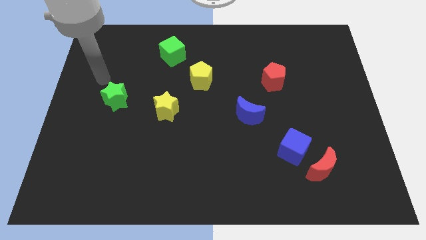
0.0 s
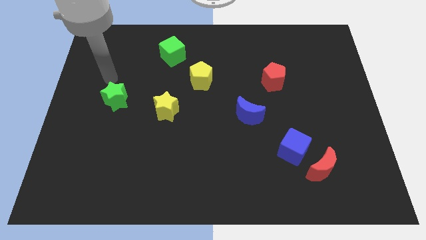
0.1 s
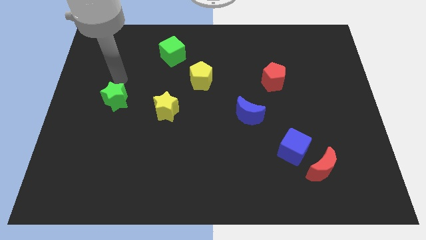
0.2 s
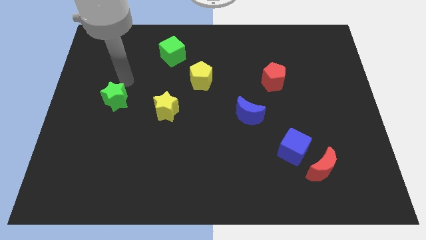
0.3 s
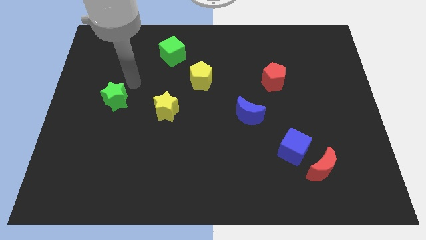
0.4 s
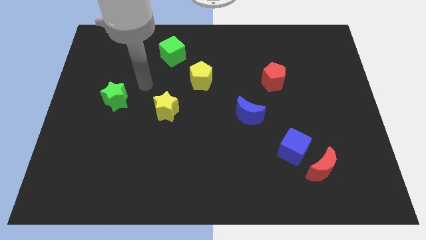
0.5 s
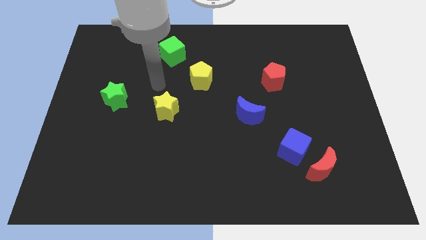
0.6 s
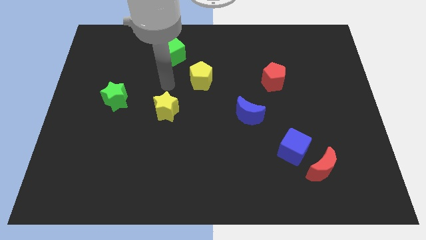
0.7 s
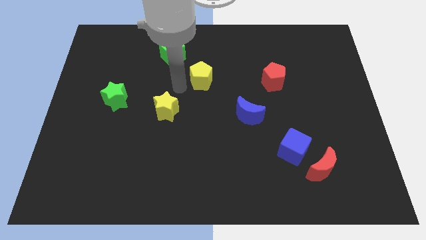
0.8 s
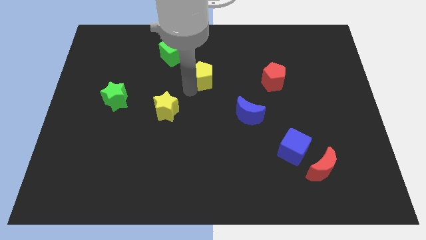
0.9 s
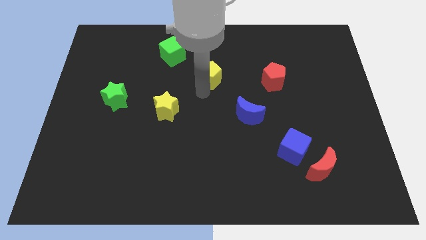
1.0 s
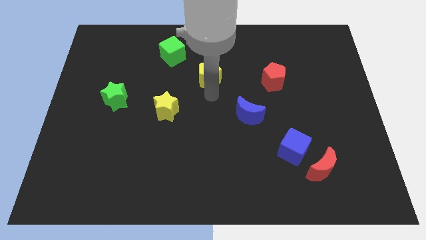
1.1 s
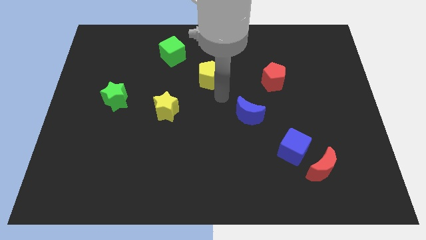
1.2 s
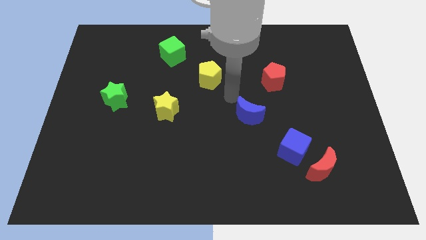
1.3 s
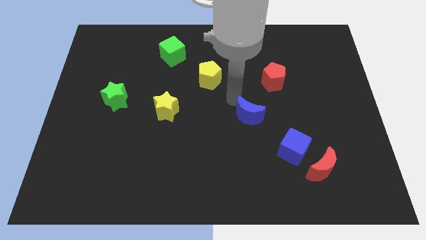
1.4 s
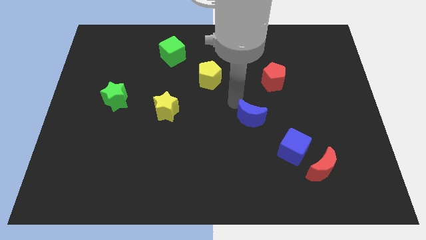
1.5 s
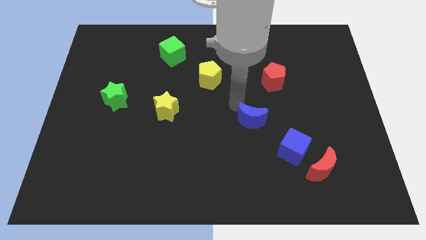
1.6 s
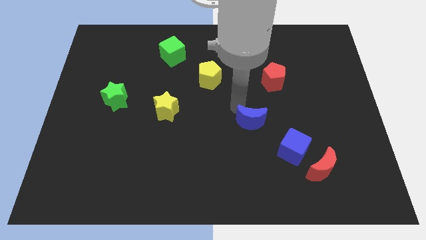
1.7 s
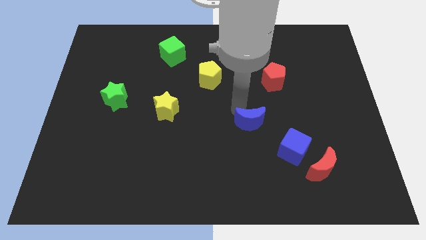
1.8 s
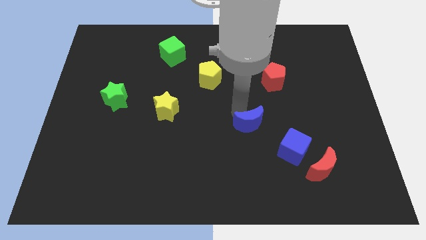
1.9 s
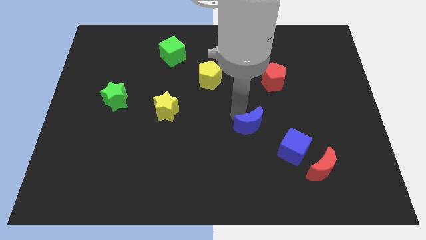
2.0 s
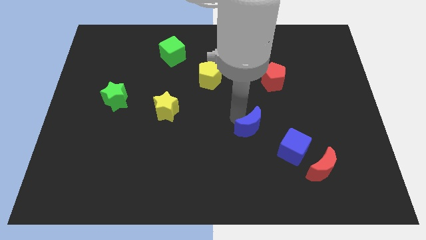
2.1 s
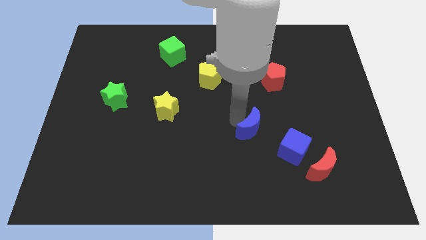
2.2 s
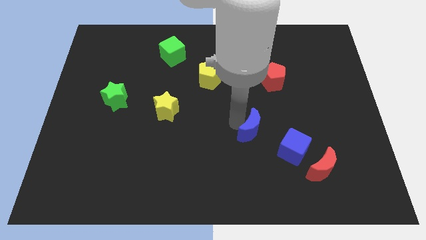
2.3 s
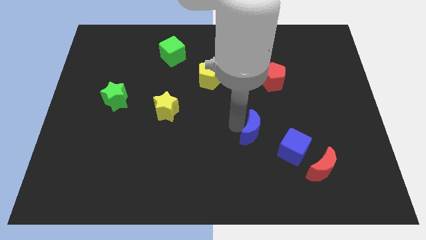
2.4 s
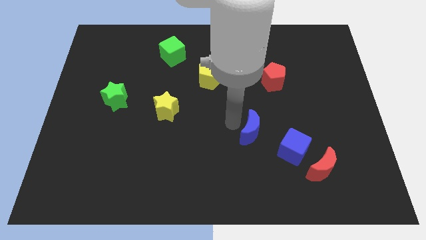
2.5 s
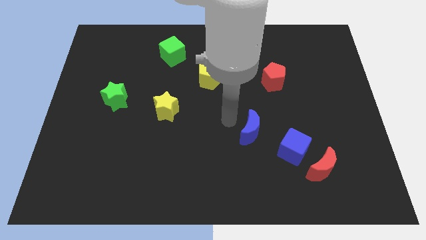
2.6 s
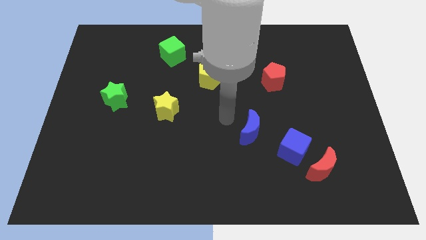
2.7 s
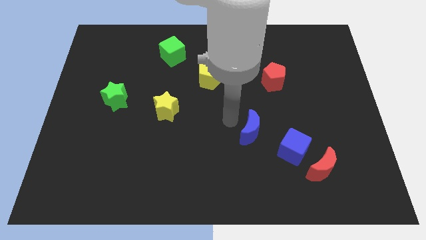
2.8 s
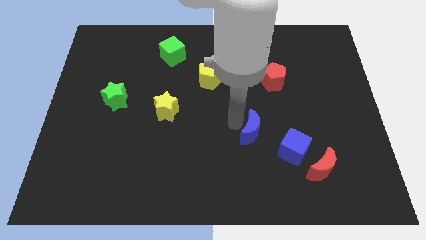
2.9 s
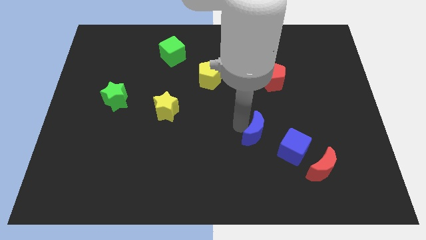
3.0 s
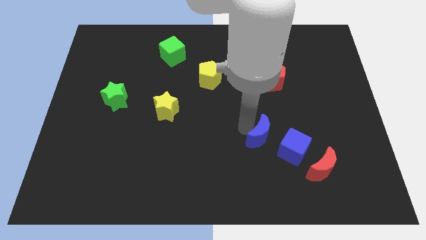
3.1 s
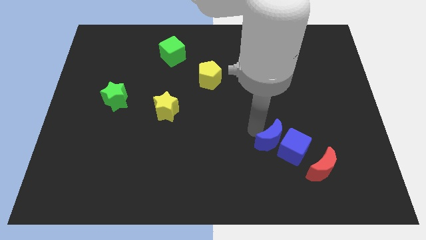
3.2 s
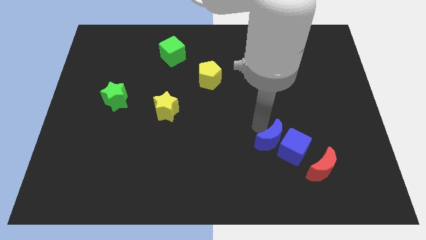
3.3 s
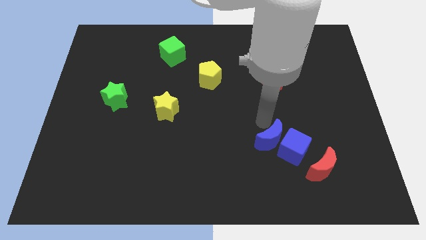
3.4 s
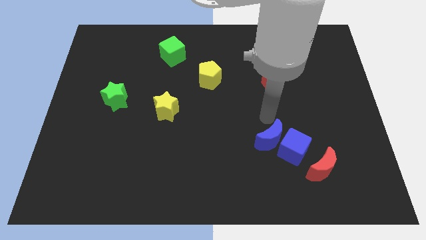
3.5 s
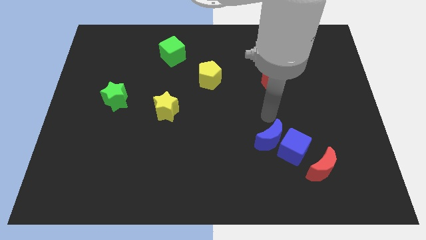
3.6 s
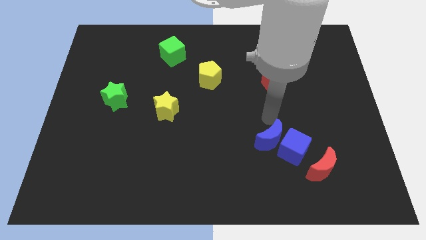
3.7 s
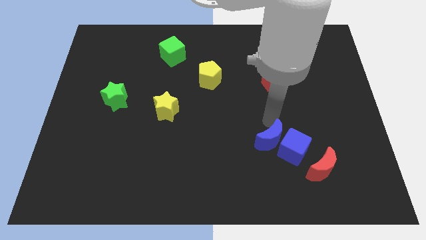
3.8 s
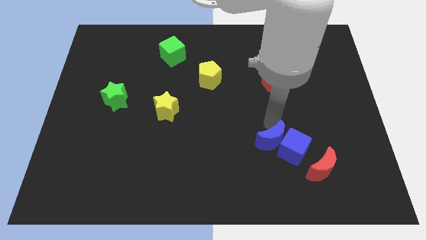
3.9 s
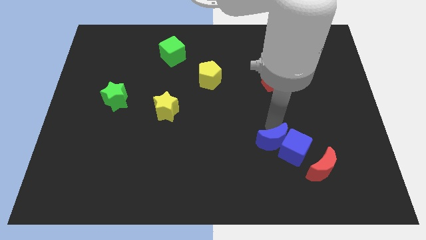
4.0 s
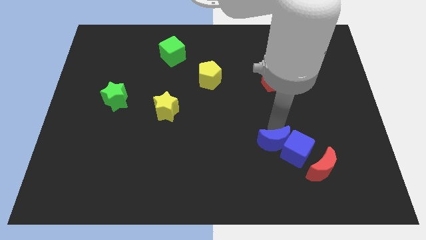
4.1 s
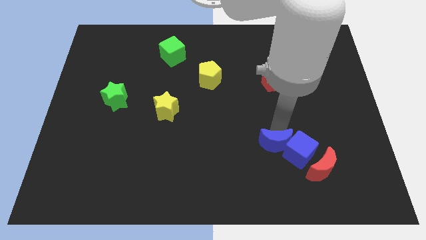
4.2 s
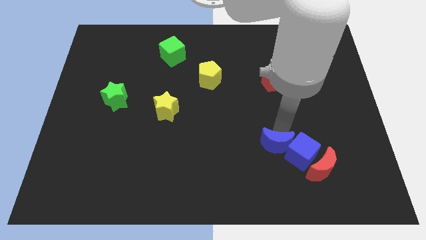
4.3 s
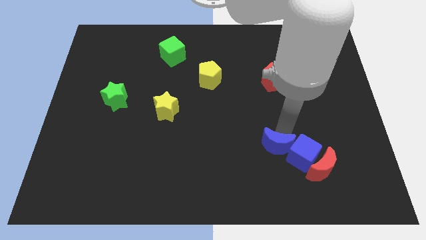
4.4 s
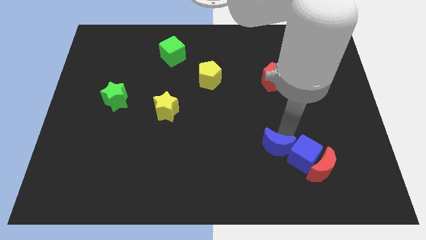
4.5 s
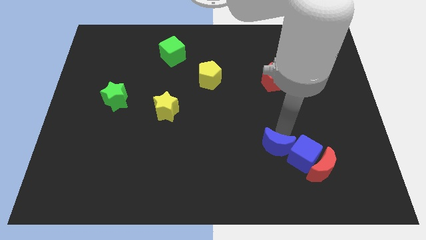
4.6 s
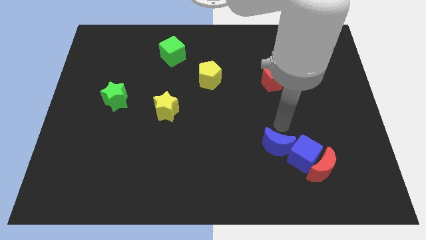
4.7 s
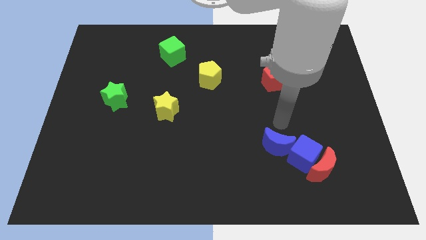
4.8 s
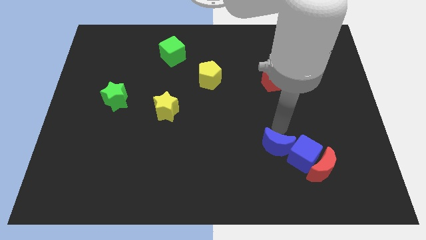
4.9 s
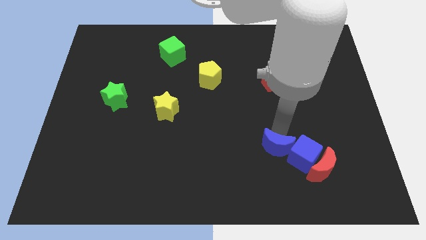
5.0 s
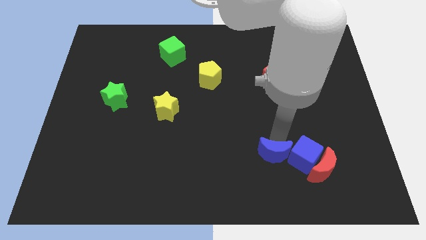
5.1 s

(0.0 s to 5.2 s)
put the blue moon left of the red moon

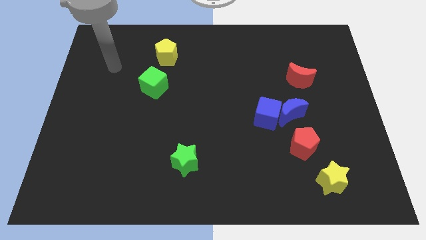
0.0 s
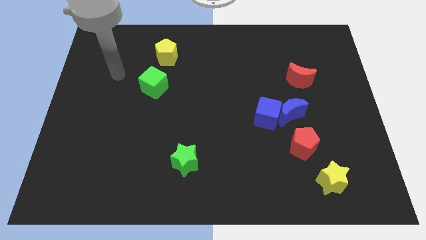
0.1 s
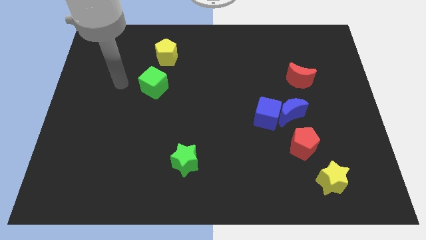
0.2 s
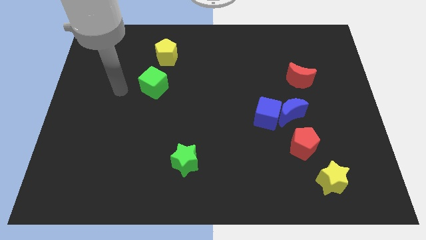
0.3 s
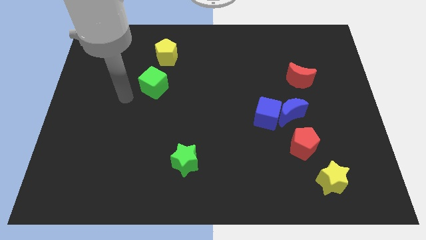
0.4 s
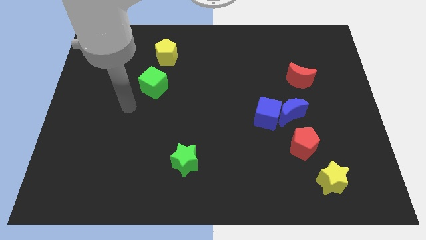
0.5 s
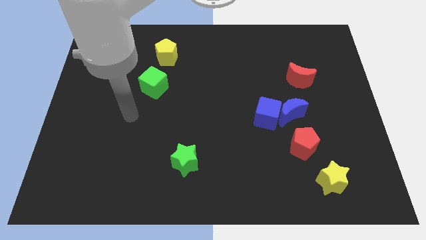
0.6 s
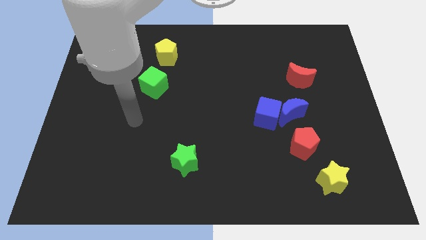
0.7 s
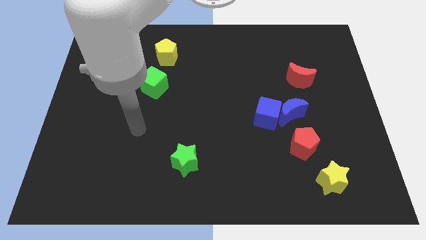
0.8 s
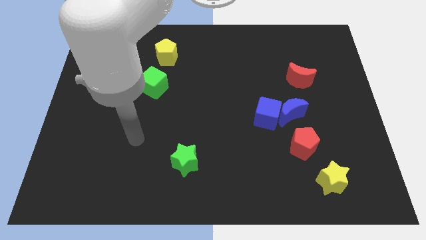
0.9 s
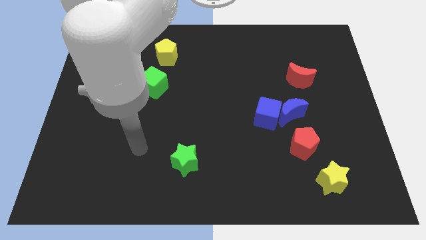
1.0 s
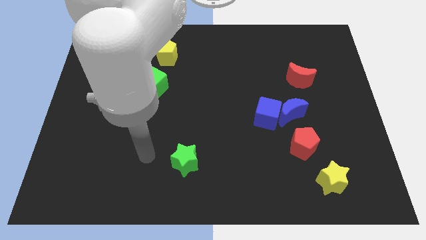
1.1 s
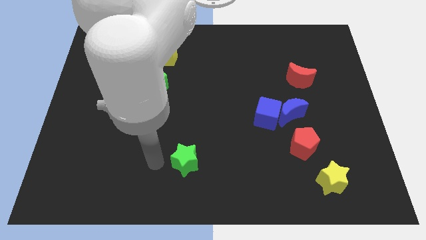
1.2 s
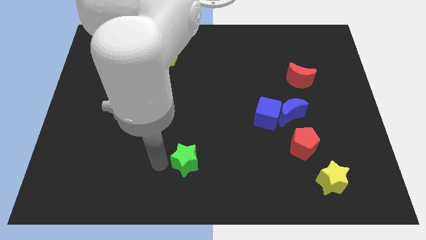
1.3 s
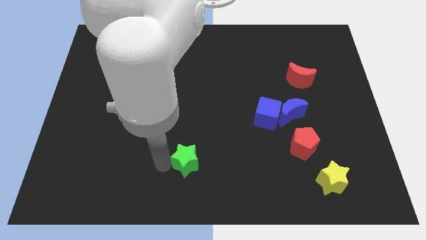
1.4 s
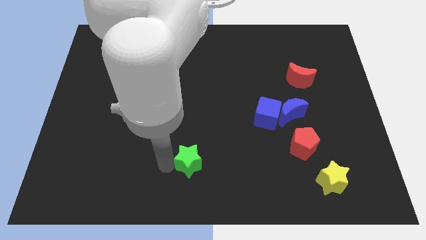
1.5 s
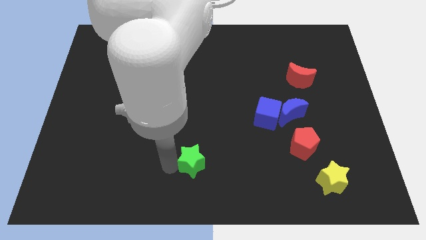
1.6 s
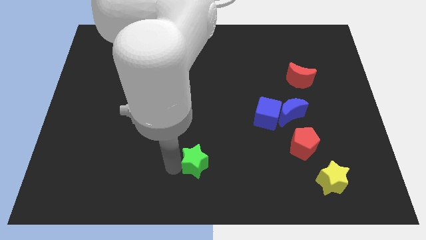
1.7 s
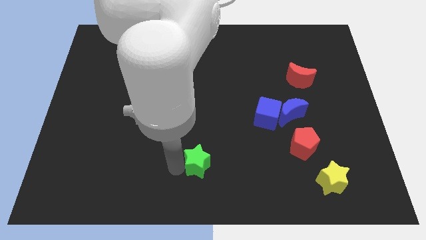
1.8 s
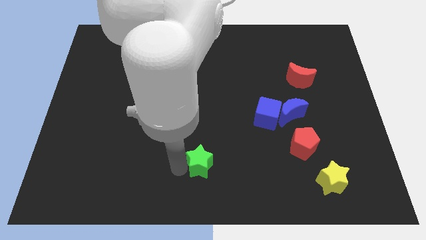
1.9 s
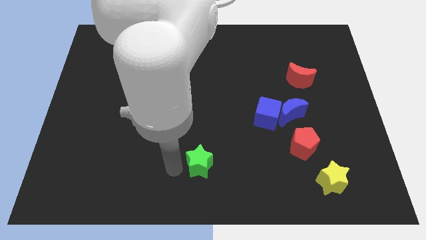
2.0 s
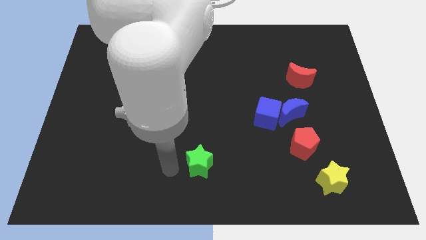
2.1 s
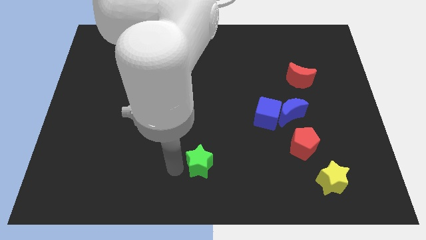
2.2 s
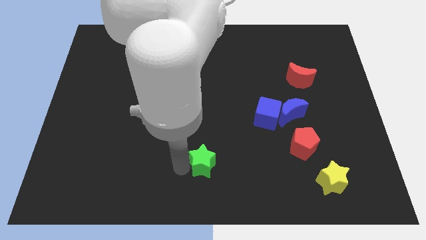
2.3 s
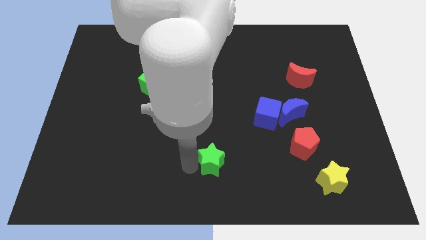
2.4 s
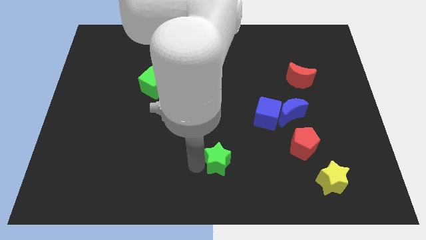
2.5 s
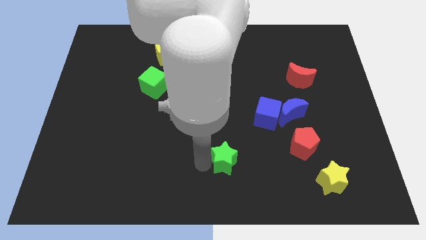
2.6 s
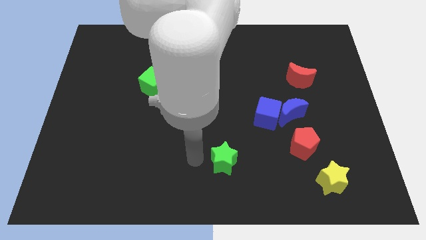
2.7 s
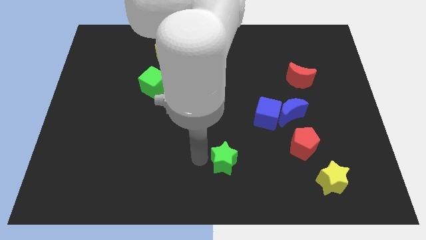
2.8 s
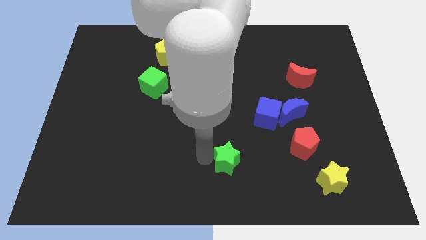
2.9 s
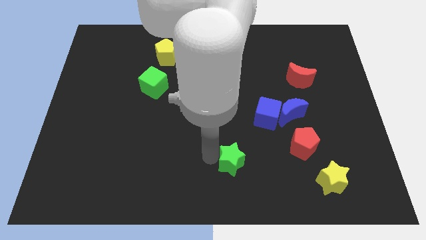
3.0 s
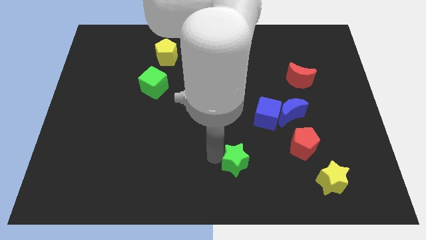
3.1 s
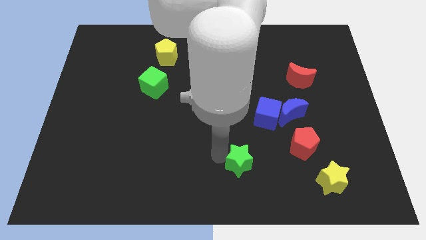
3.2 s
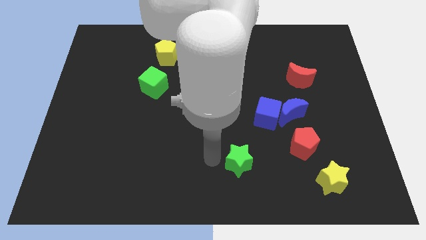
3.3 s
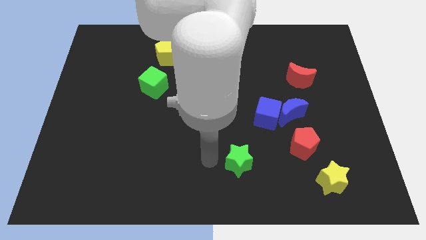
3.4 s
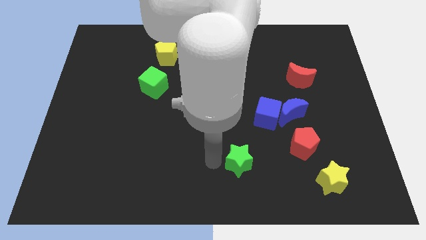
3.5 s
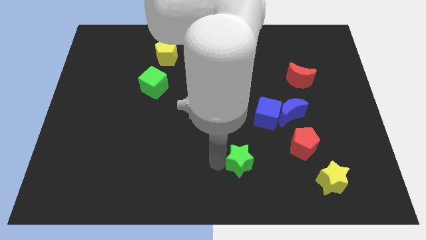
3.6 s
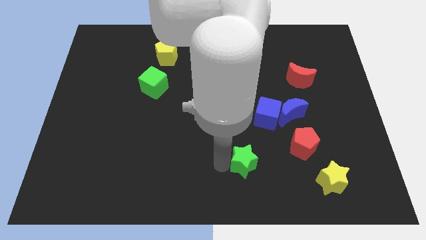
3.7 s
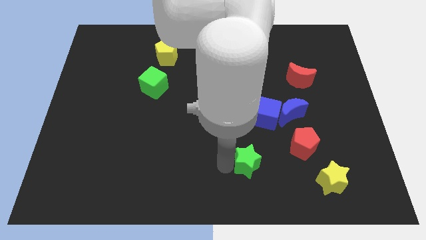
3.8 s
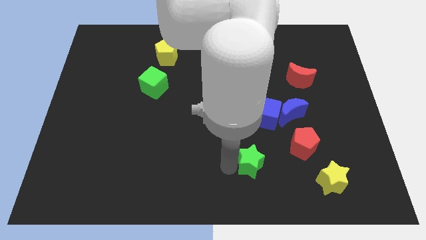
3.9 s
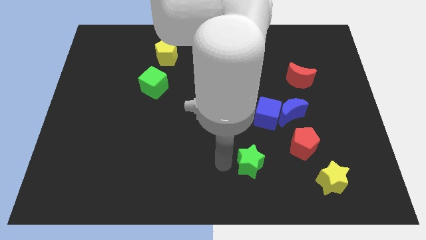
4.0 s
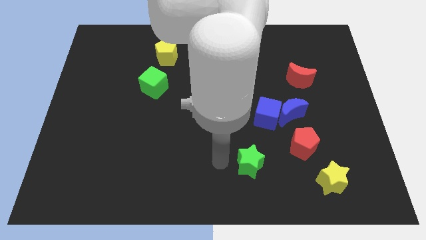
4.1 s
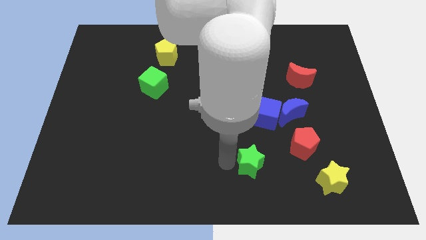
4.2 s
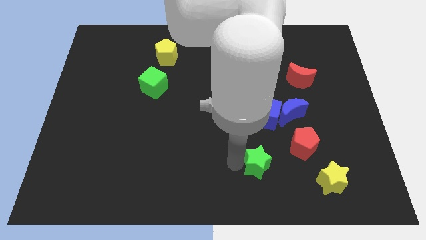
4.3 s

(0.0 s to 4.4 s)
slide the green star diagonally down and to the left of the red pentagon
